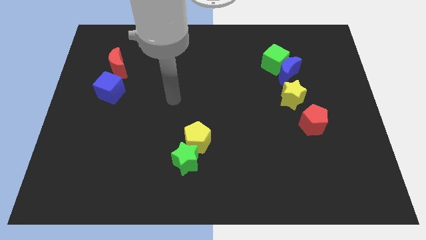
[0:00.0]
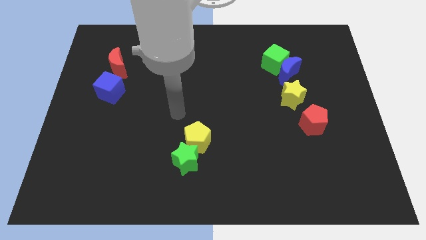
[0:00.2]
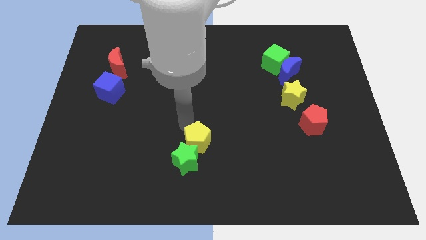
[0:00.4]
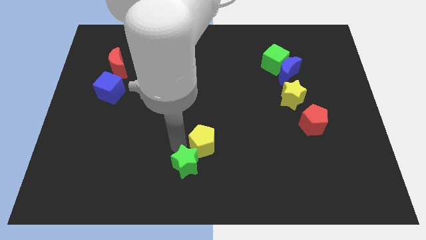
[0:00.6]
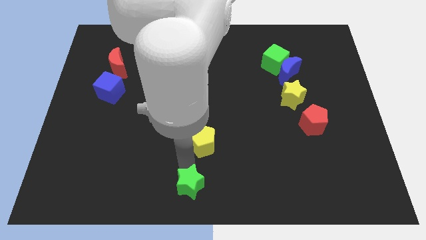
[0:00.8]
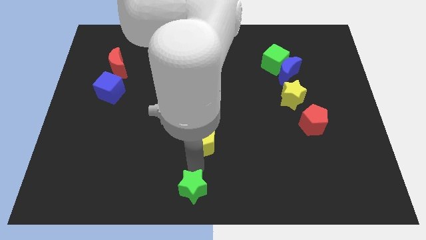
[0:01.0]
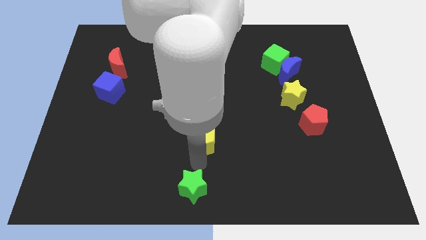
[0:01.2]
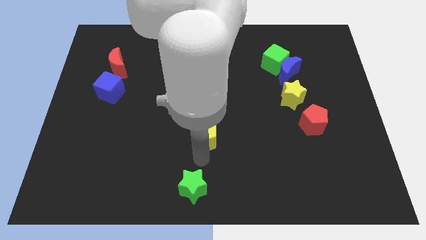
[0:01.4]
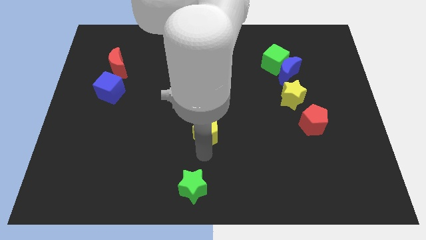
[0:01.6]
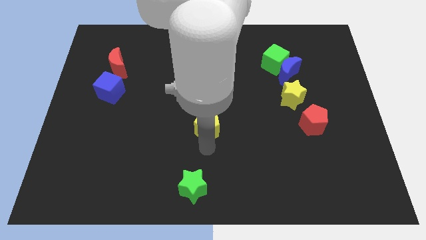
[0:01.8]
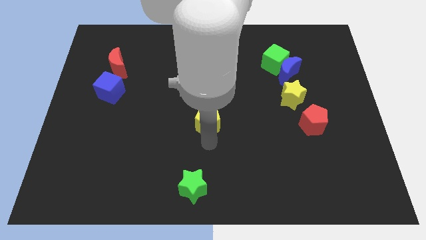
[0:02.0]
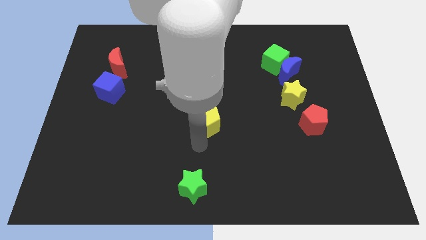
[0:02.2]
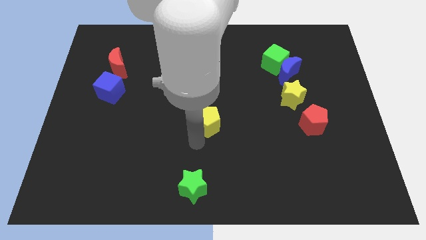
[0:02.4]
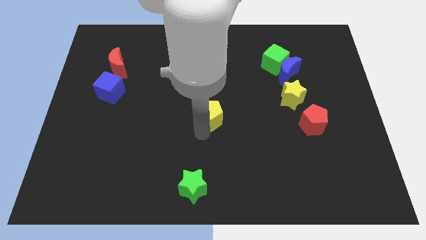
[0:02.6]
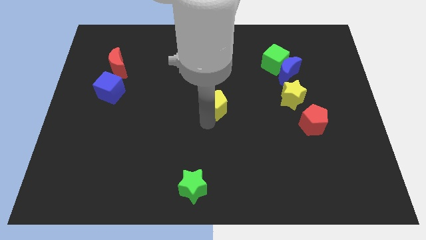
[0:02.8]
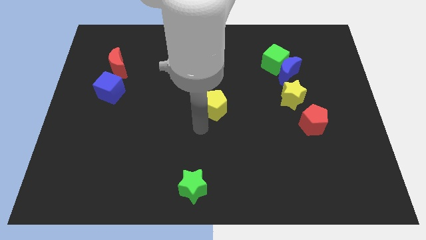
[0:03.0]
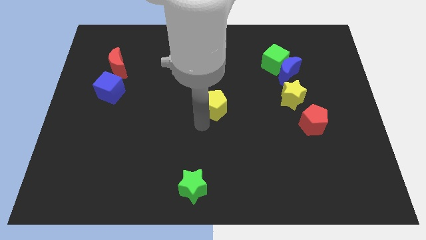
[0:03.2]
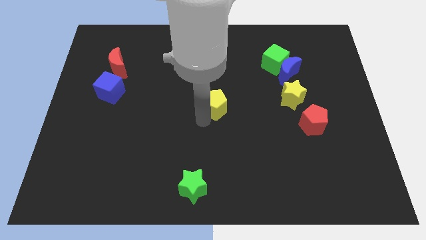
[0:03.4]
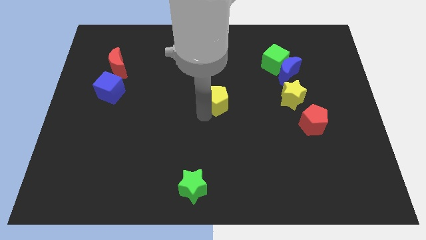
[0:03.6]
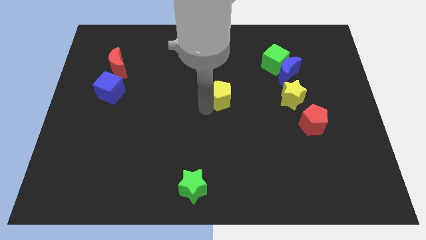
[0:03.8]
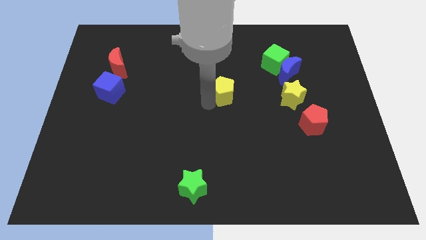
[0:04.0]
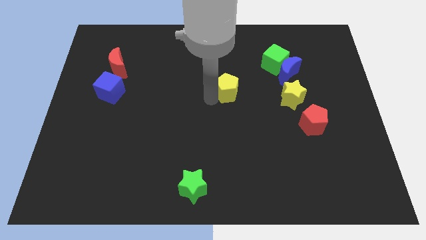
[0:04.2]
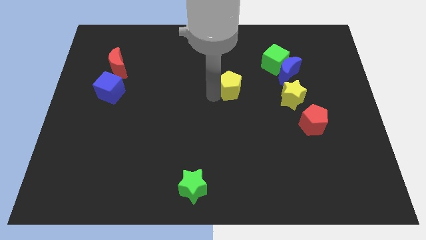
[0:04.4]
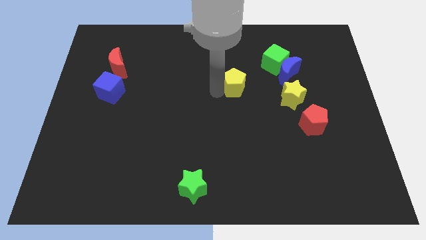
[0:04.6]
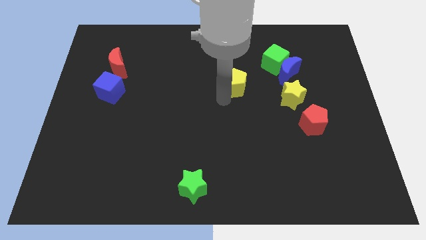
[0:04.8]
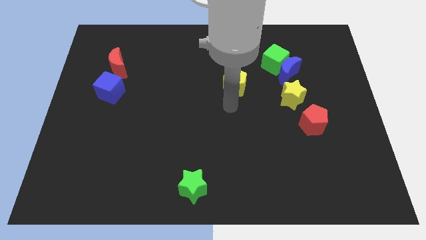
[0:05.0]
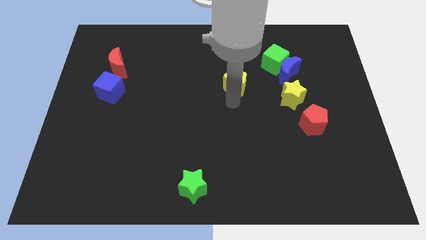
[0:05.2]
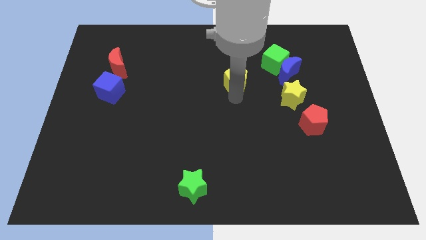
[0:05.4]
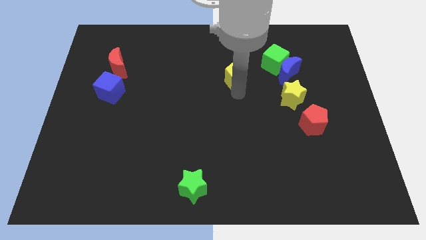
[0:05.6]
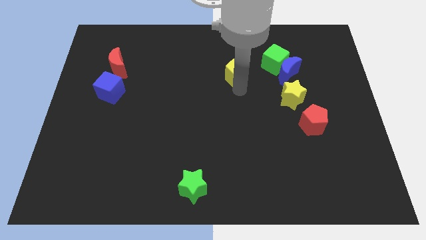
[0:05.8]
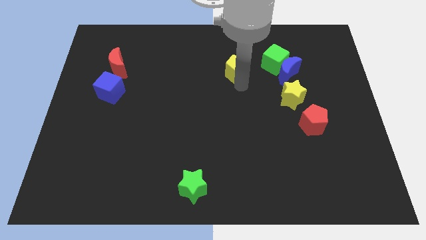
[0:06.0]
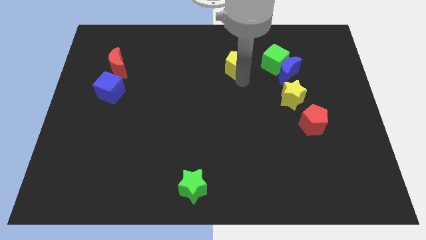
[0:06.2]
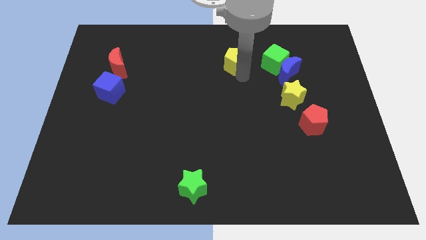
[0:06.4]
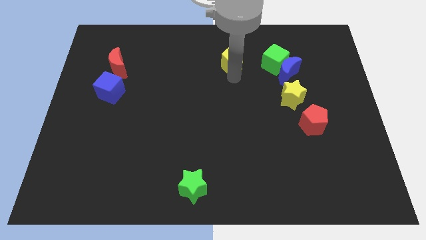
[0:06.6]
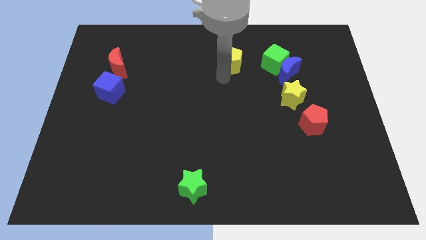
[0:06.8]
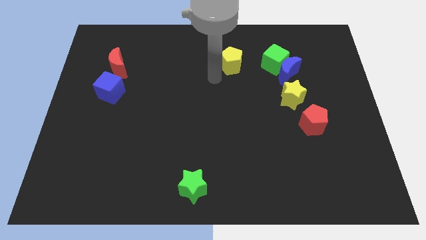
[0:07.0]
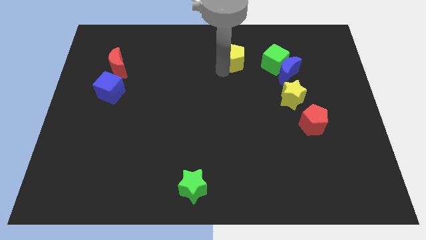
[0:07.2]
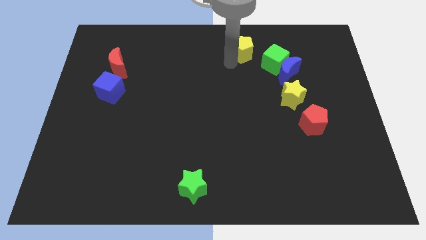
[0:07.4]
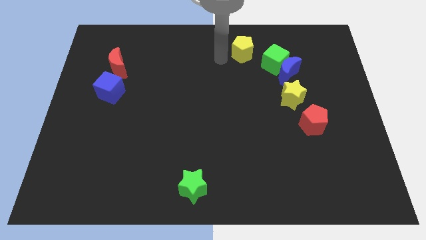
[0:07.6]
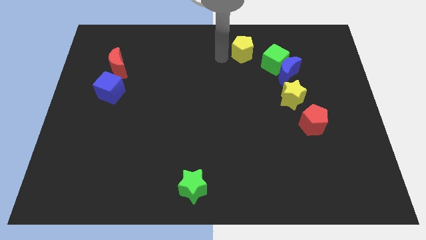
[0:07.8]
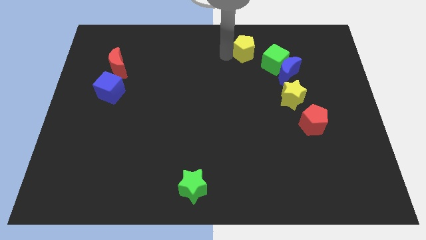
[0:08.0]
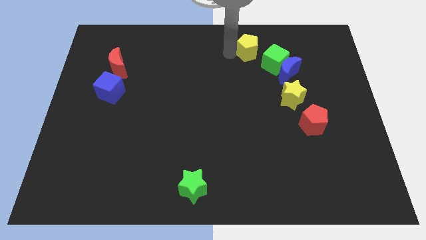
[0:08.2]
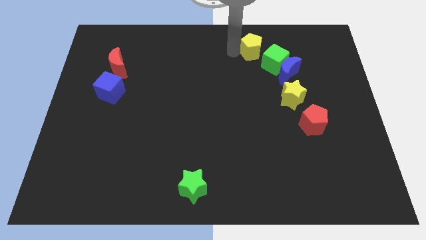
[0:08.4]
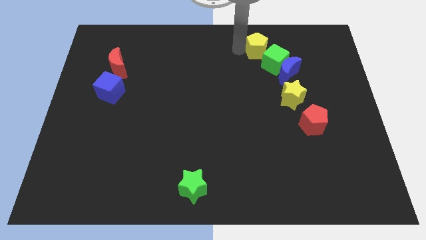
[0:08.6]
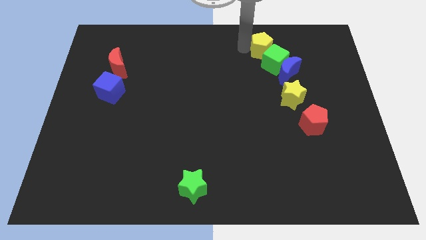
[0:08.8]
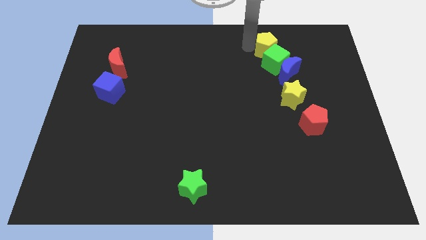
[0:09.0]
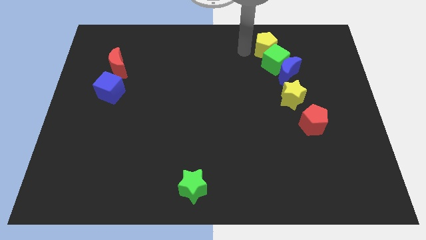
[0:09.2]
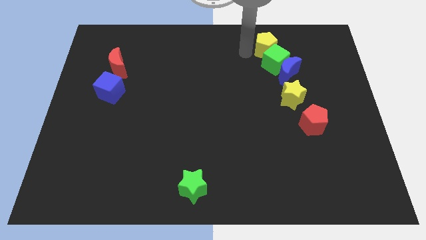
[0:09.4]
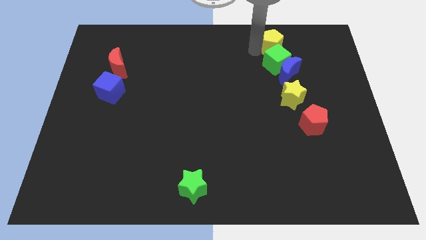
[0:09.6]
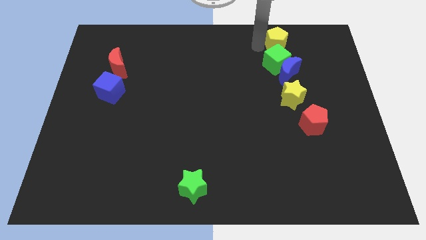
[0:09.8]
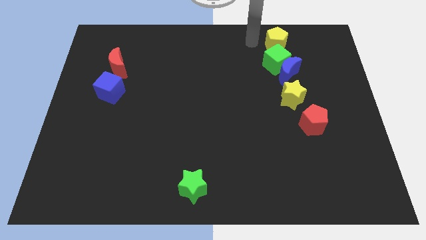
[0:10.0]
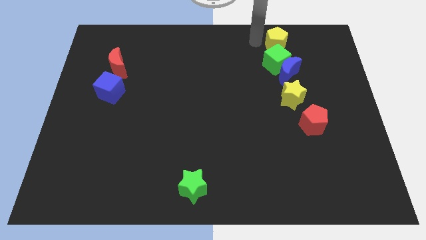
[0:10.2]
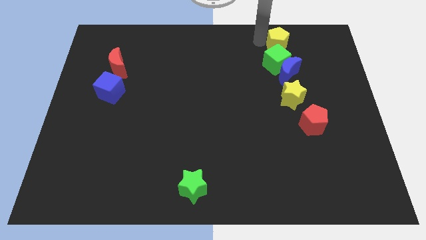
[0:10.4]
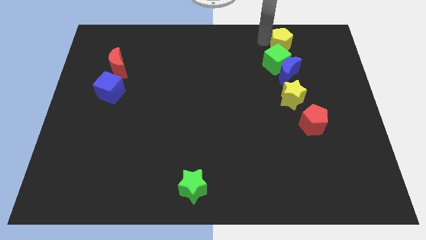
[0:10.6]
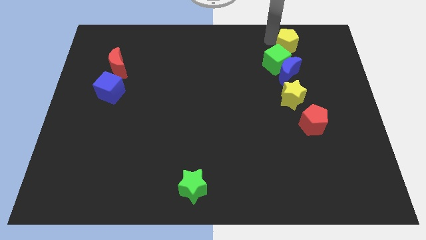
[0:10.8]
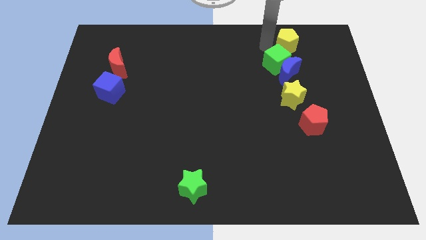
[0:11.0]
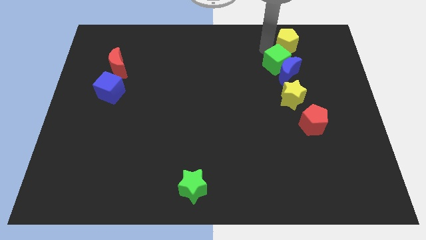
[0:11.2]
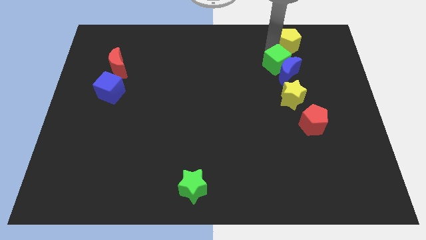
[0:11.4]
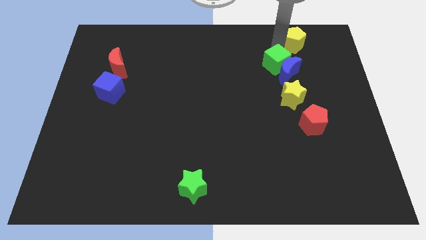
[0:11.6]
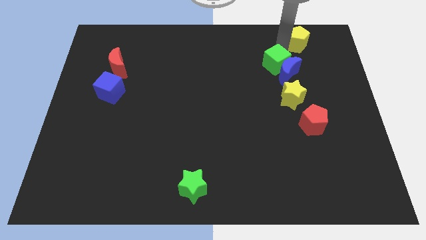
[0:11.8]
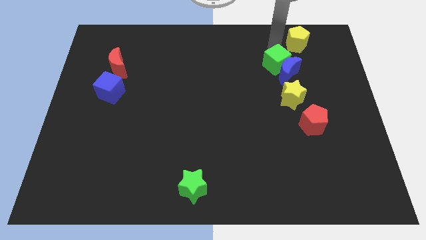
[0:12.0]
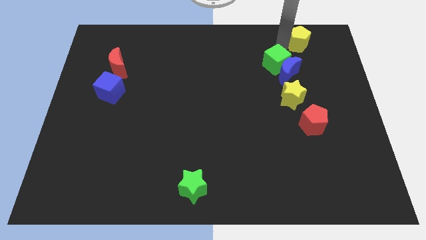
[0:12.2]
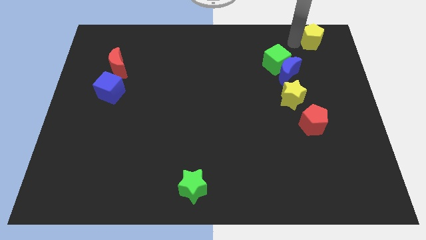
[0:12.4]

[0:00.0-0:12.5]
put the yellow pentagon to the top right

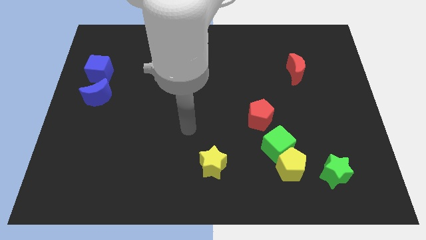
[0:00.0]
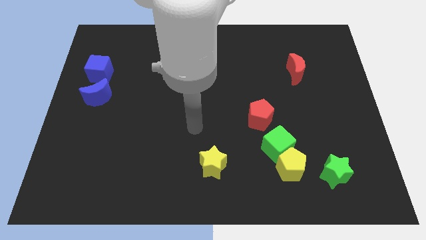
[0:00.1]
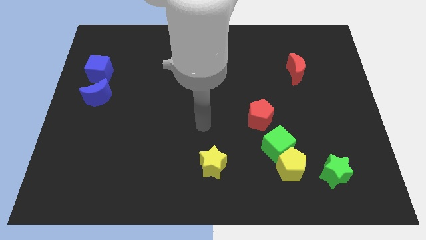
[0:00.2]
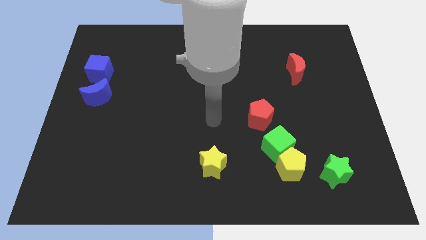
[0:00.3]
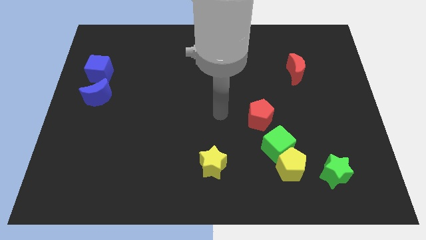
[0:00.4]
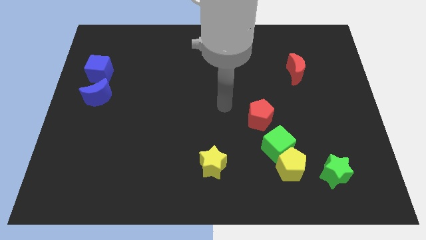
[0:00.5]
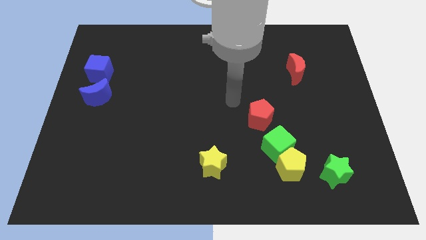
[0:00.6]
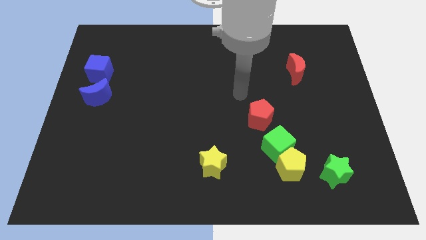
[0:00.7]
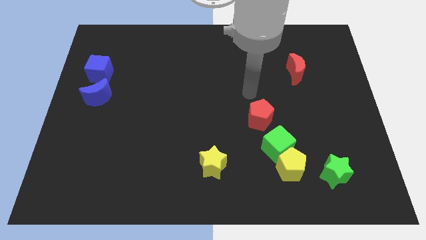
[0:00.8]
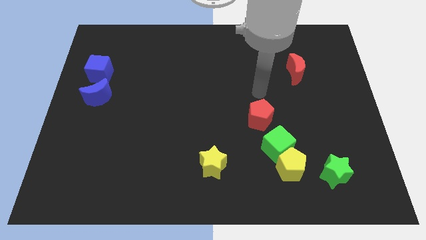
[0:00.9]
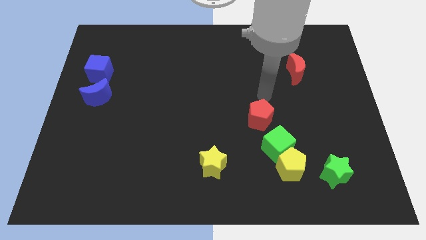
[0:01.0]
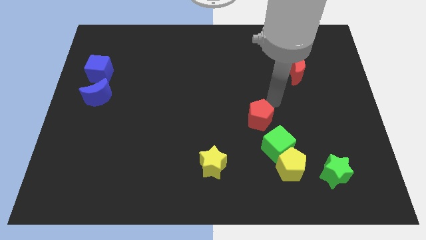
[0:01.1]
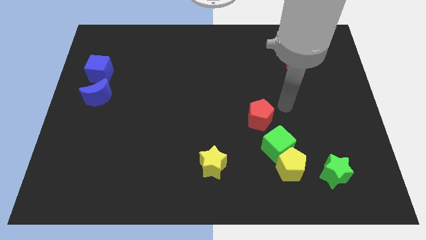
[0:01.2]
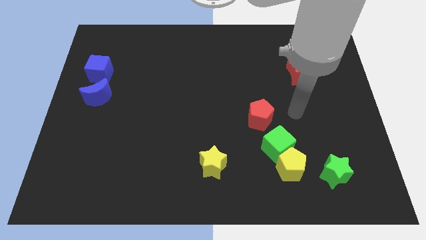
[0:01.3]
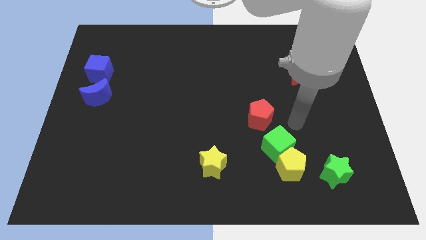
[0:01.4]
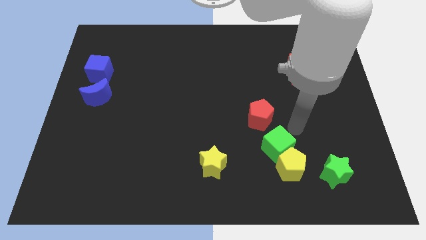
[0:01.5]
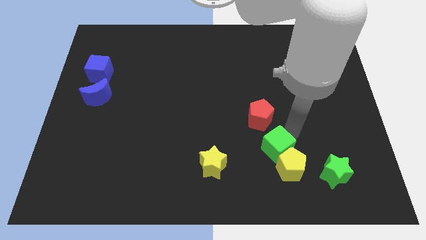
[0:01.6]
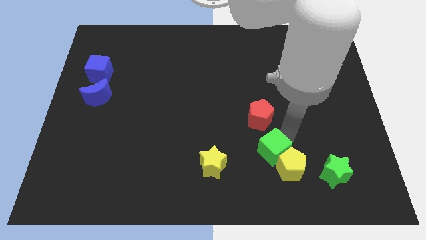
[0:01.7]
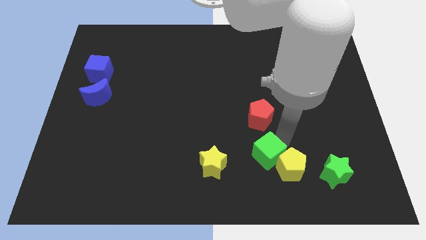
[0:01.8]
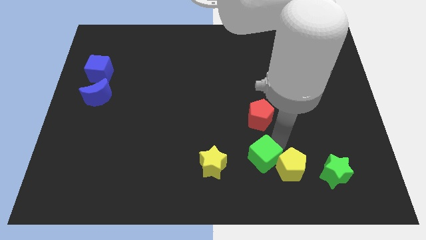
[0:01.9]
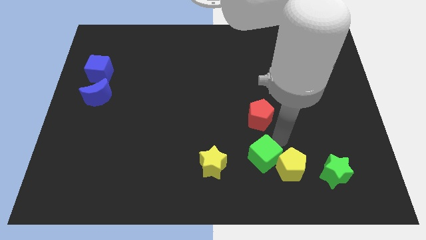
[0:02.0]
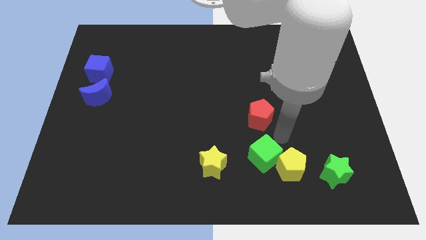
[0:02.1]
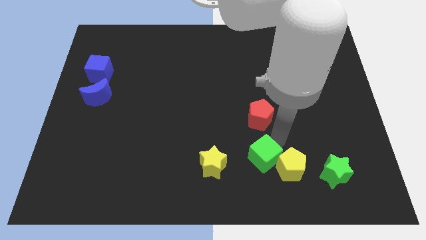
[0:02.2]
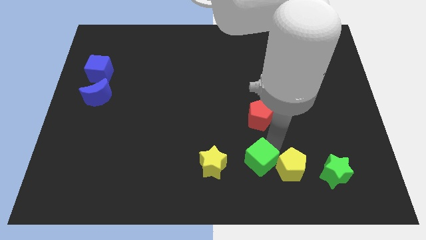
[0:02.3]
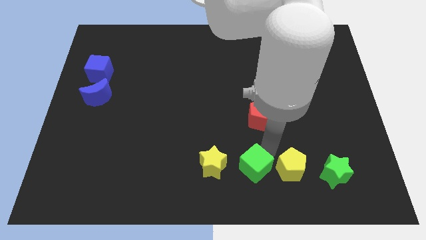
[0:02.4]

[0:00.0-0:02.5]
push the green cube to the bottom side
